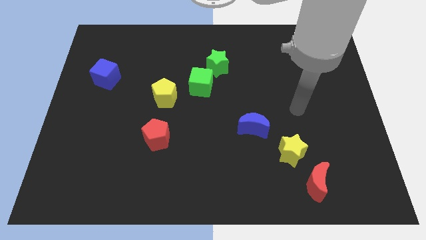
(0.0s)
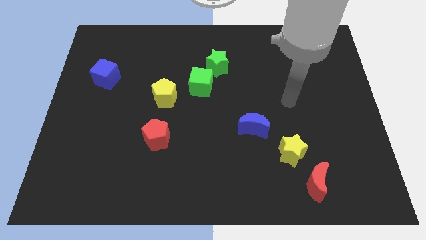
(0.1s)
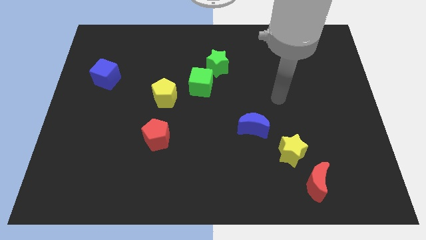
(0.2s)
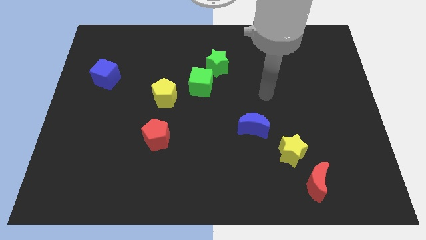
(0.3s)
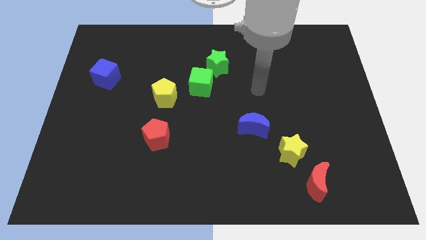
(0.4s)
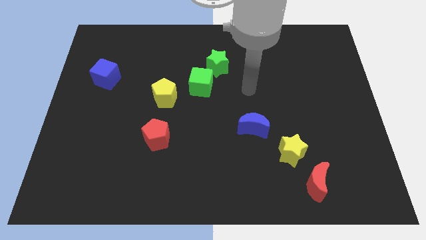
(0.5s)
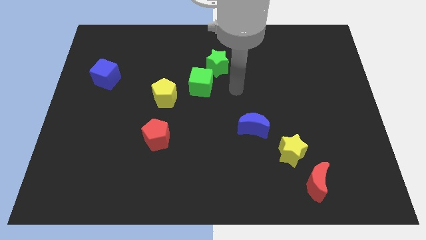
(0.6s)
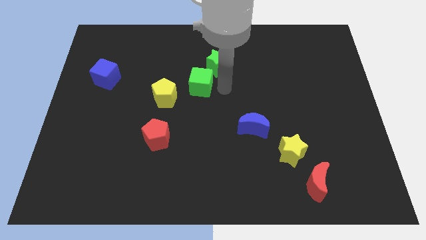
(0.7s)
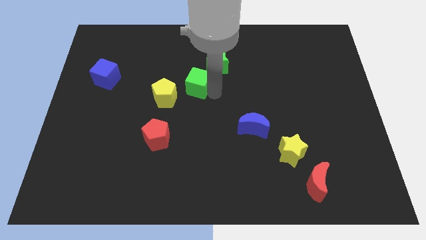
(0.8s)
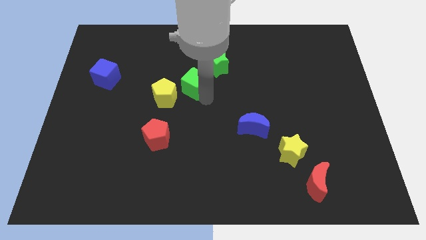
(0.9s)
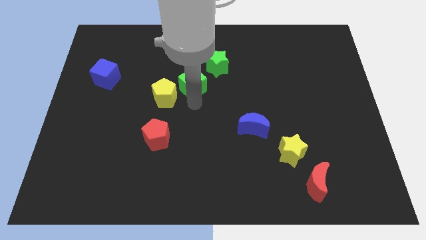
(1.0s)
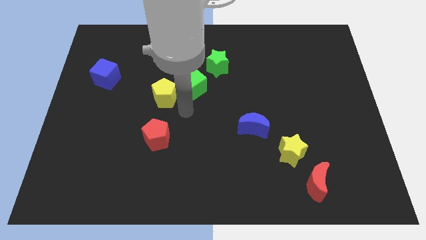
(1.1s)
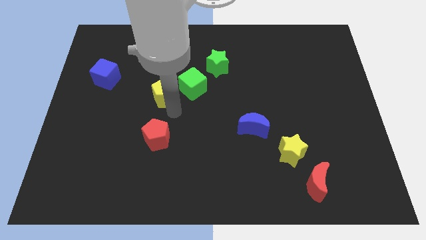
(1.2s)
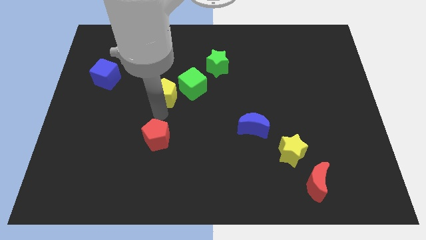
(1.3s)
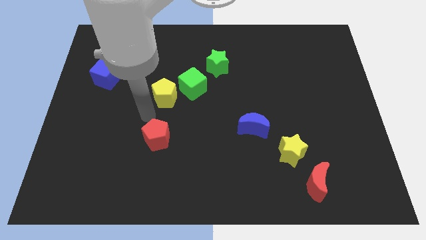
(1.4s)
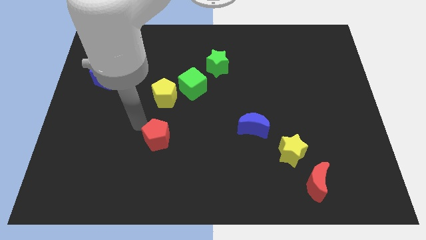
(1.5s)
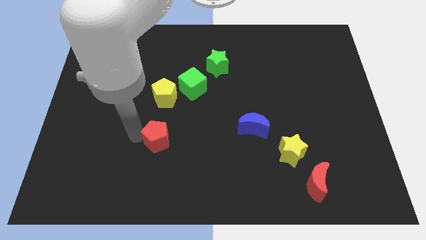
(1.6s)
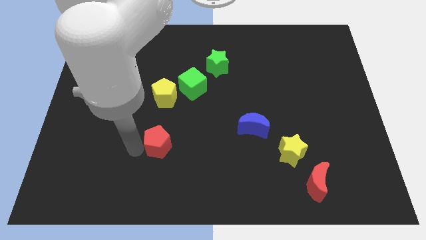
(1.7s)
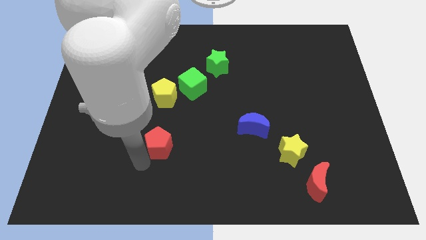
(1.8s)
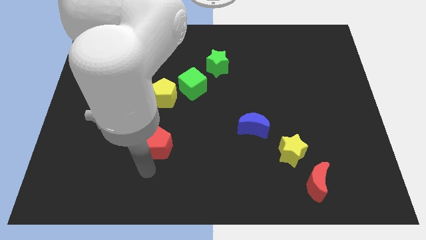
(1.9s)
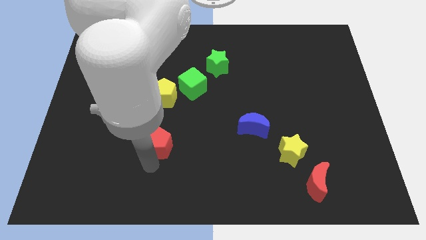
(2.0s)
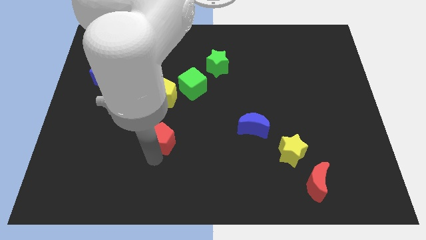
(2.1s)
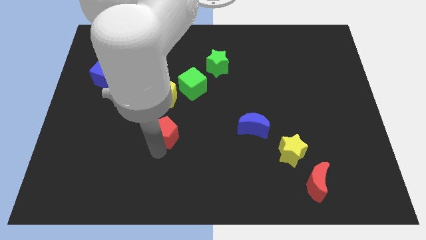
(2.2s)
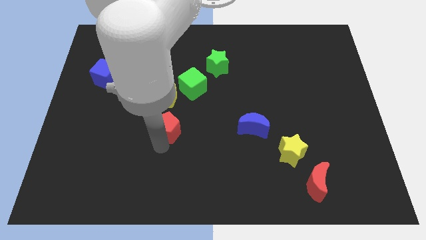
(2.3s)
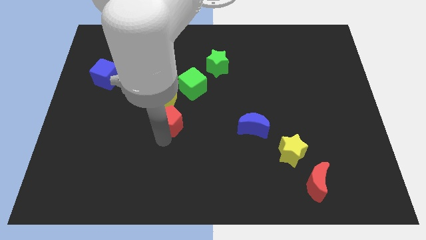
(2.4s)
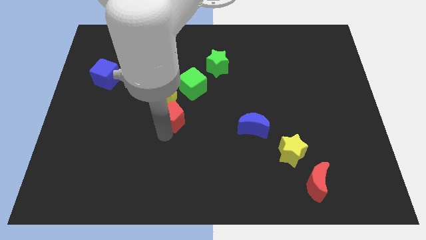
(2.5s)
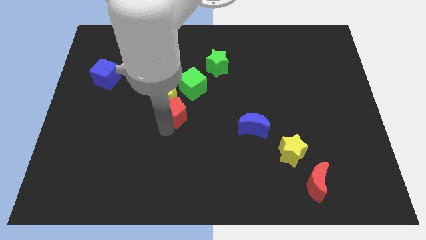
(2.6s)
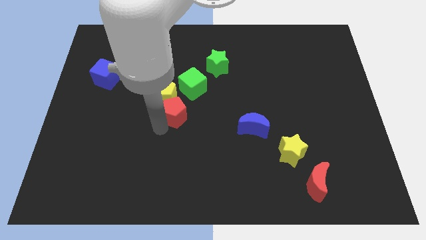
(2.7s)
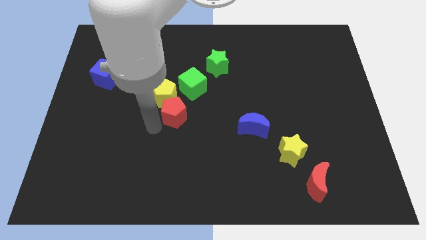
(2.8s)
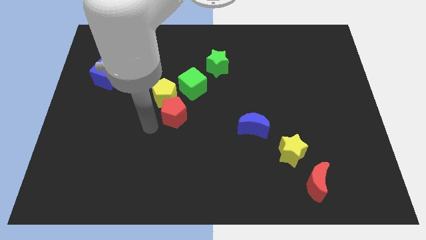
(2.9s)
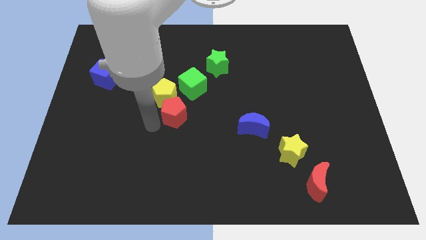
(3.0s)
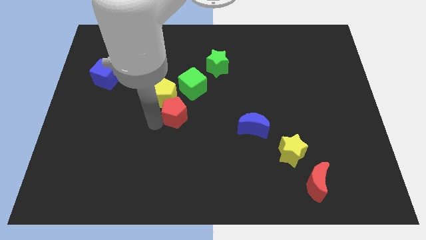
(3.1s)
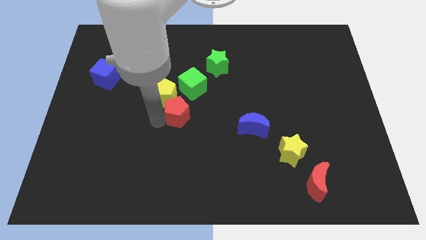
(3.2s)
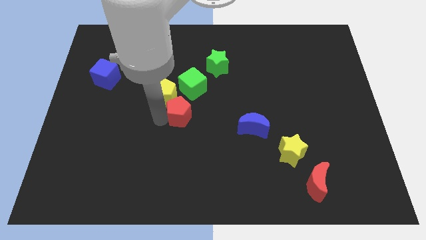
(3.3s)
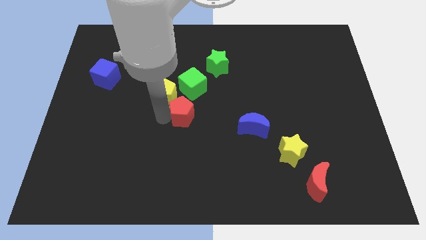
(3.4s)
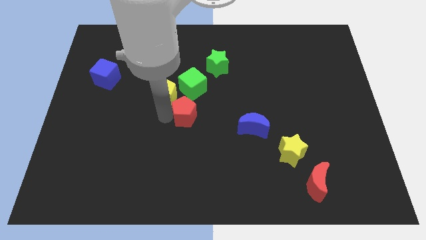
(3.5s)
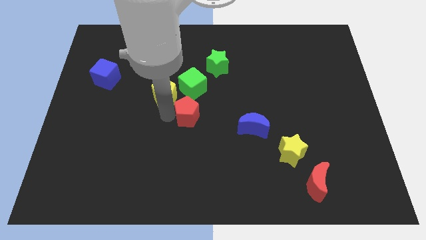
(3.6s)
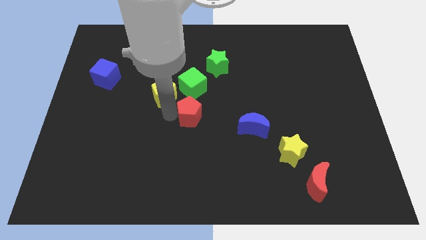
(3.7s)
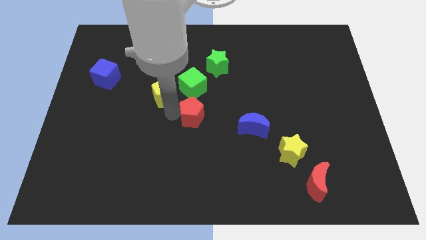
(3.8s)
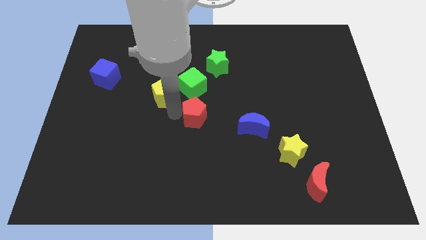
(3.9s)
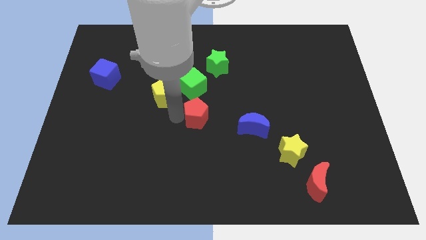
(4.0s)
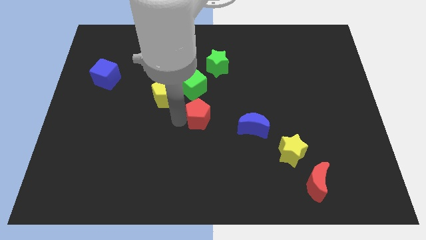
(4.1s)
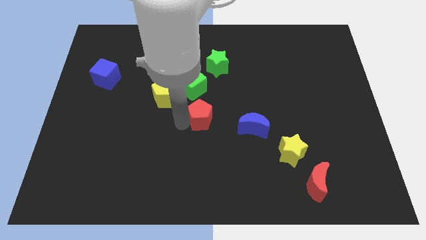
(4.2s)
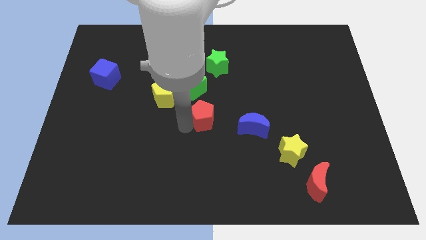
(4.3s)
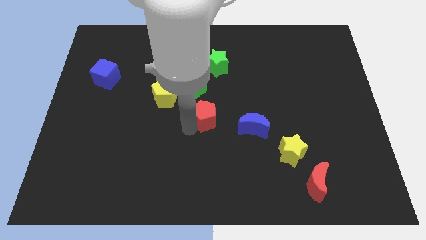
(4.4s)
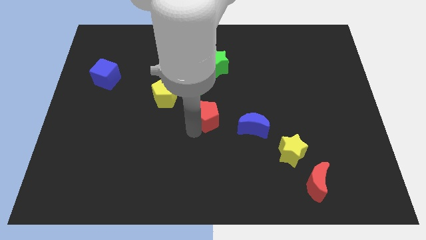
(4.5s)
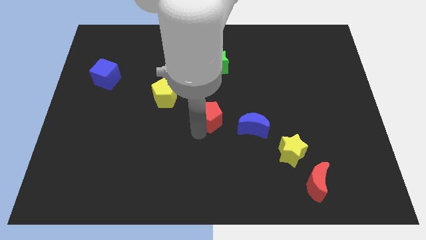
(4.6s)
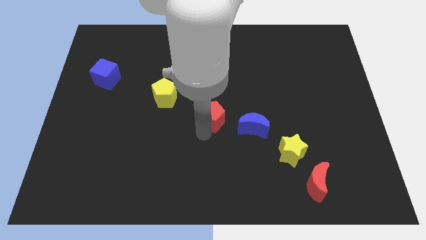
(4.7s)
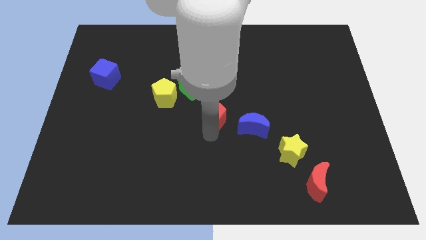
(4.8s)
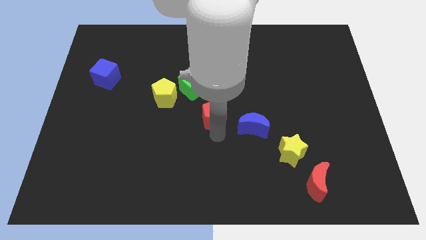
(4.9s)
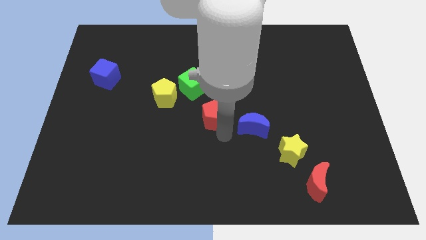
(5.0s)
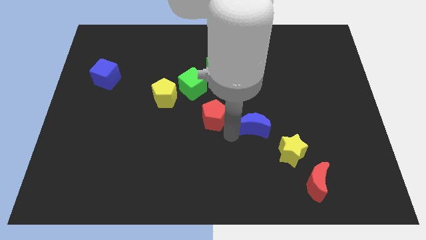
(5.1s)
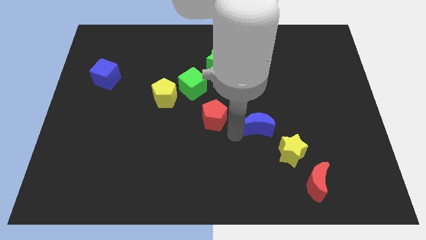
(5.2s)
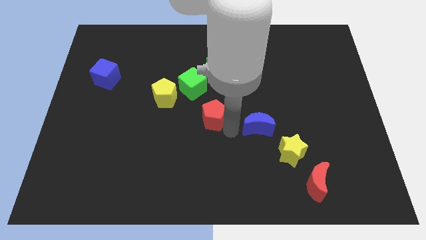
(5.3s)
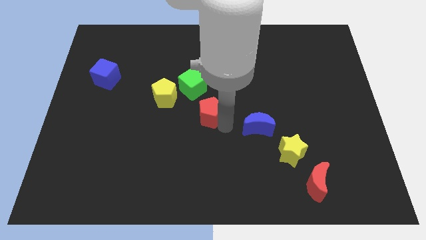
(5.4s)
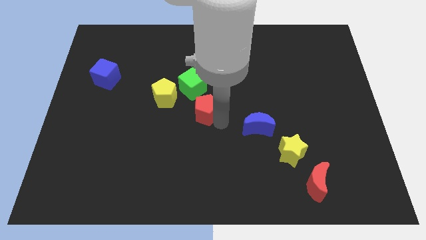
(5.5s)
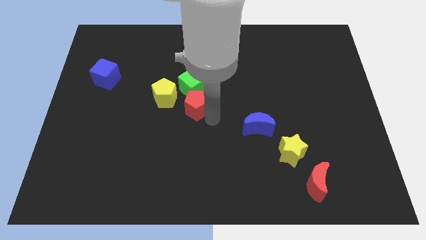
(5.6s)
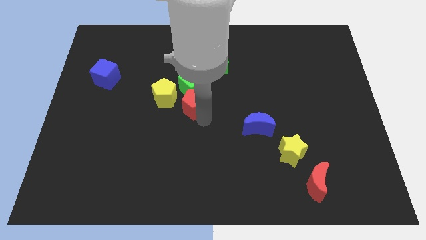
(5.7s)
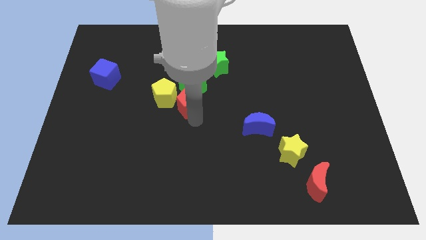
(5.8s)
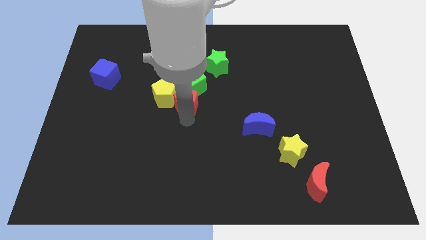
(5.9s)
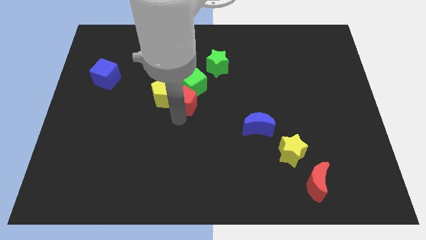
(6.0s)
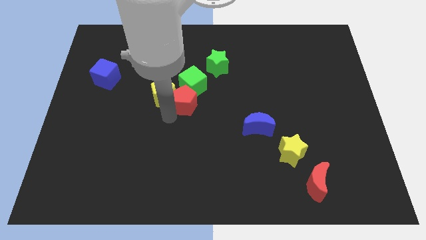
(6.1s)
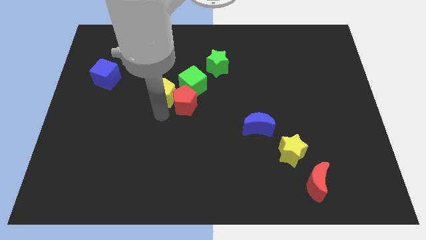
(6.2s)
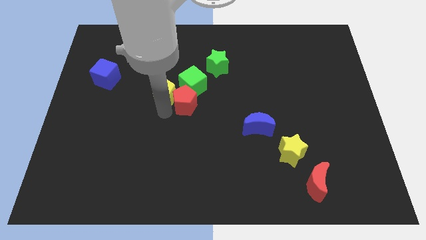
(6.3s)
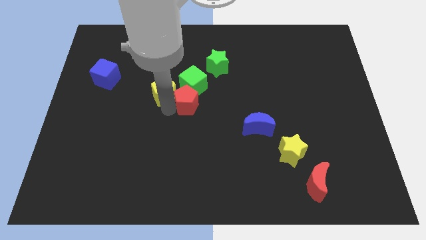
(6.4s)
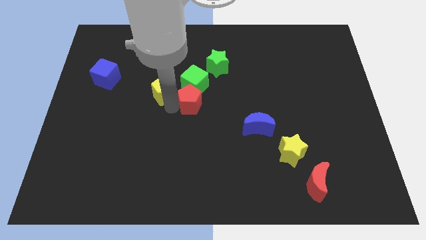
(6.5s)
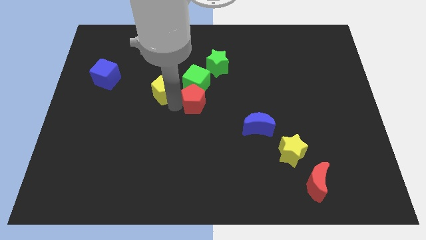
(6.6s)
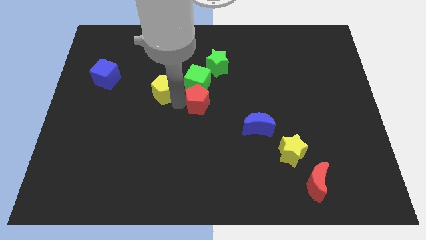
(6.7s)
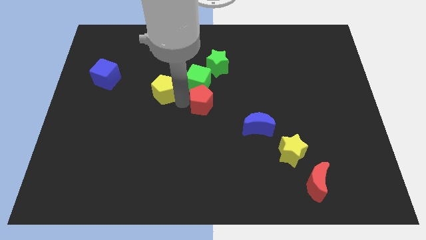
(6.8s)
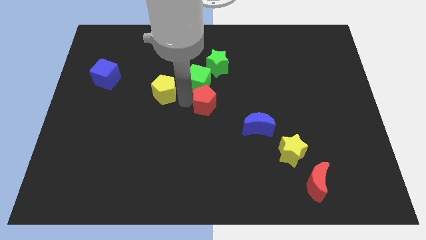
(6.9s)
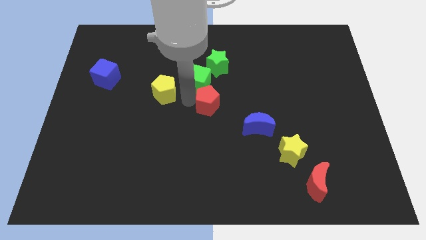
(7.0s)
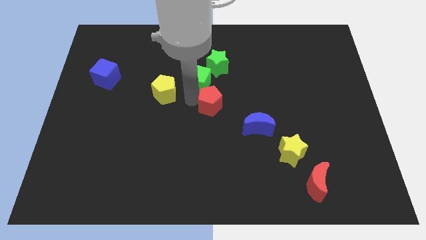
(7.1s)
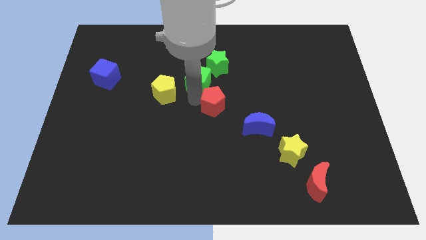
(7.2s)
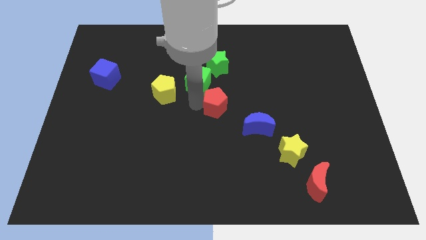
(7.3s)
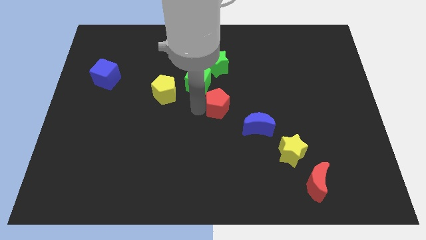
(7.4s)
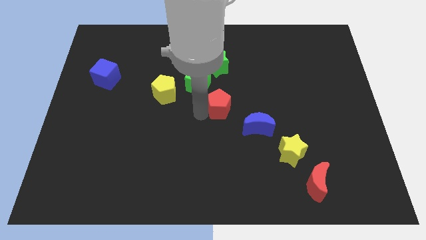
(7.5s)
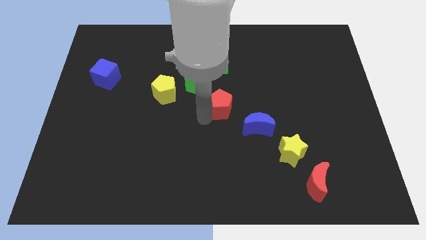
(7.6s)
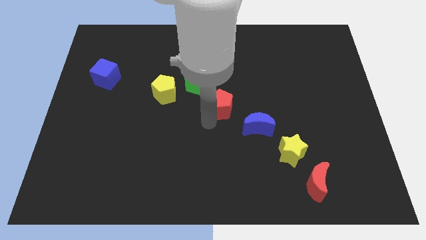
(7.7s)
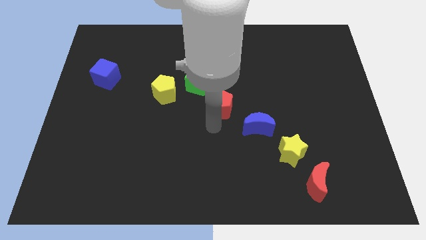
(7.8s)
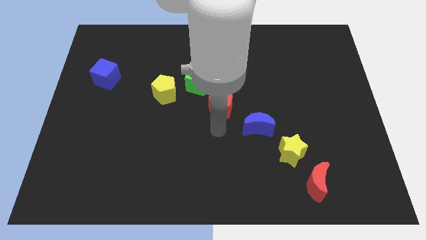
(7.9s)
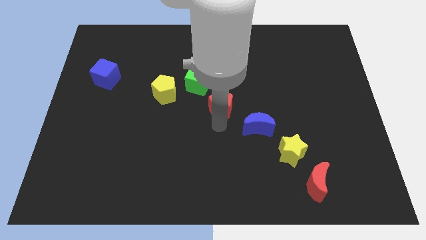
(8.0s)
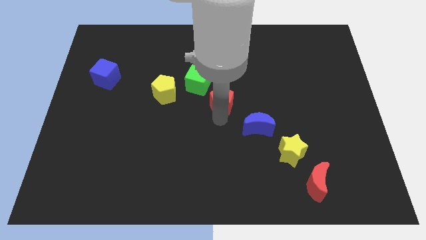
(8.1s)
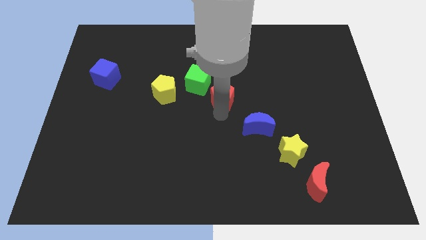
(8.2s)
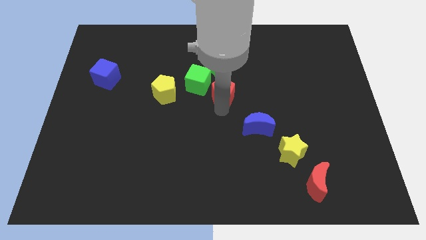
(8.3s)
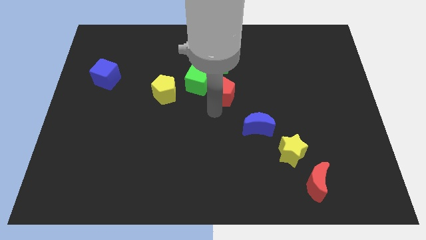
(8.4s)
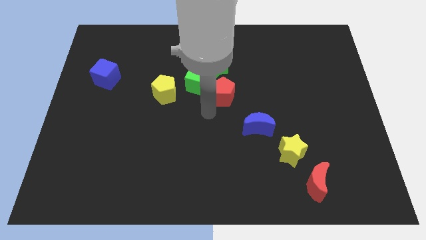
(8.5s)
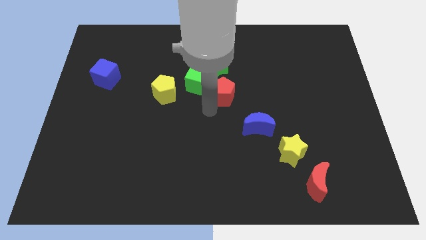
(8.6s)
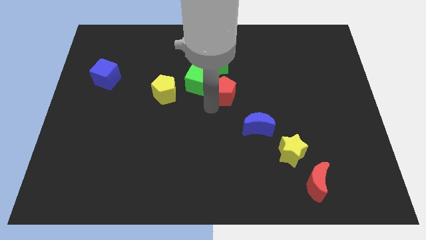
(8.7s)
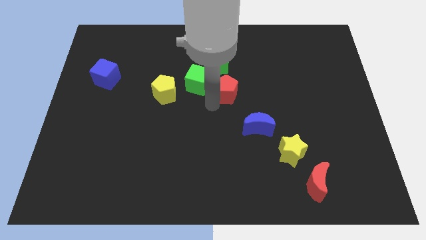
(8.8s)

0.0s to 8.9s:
slide the red pentagon upwards and right
